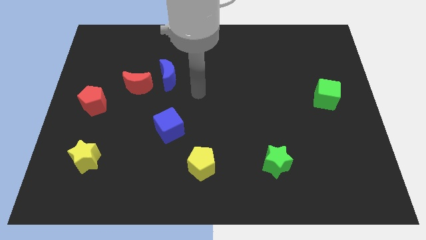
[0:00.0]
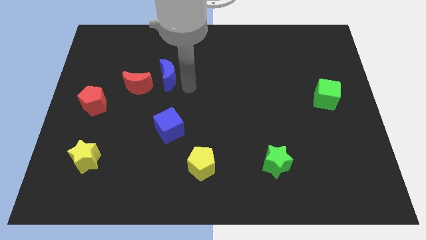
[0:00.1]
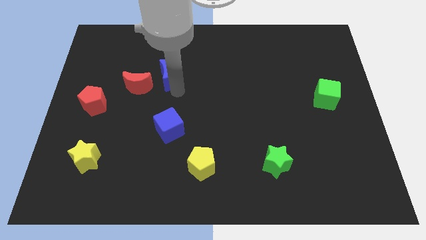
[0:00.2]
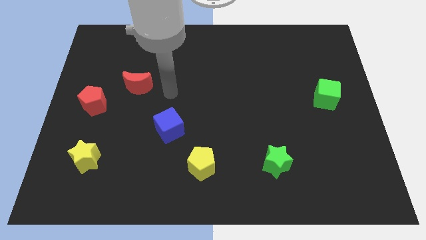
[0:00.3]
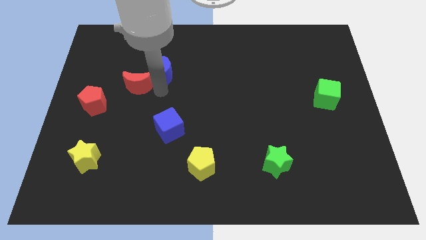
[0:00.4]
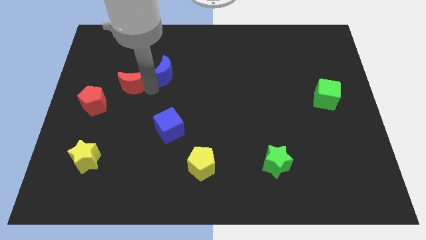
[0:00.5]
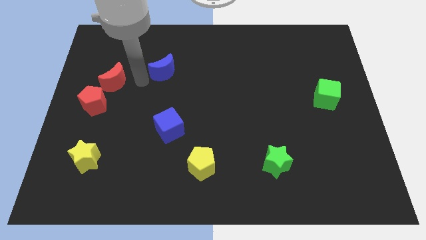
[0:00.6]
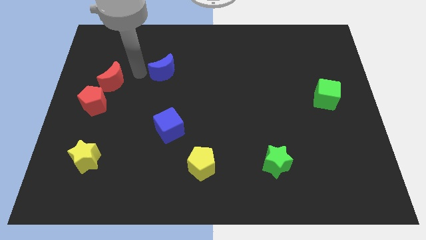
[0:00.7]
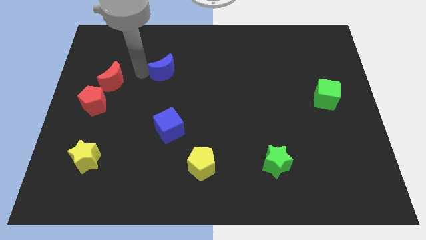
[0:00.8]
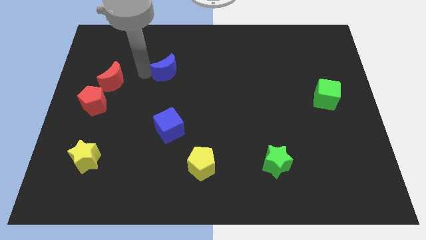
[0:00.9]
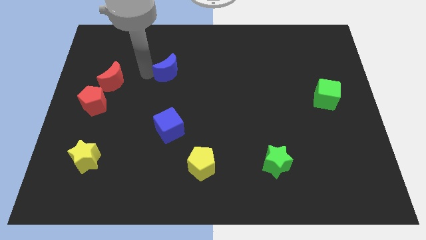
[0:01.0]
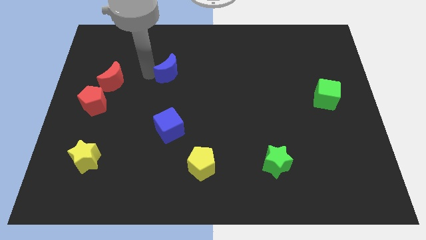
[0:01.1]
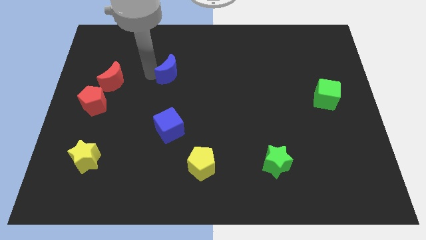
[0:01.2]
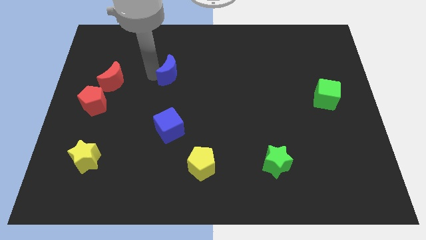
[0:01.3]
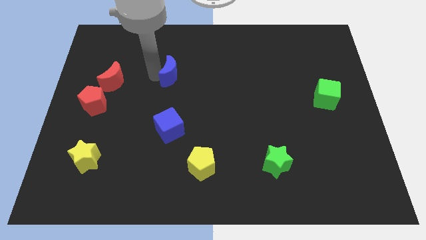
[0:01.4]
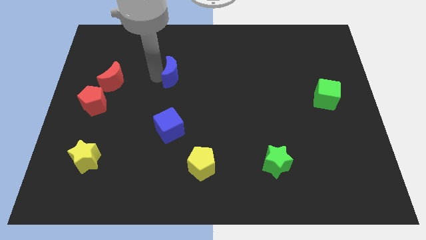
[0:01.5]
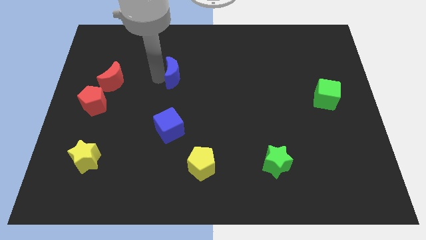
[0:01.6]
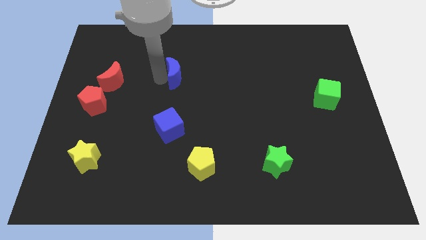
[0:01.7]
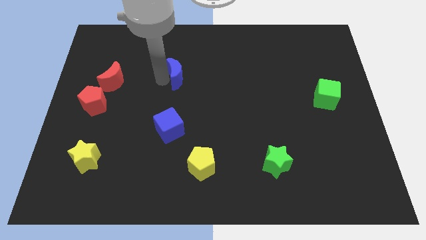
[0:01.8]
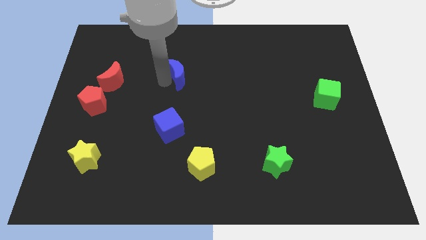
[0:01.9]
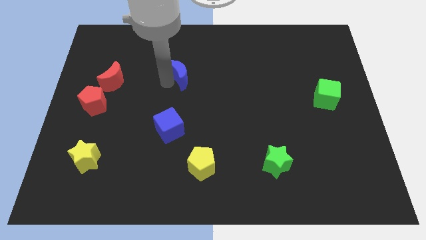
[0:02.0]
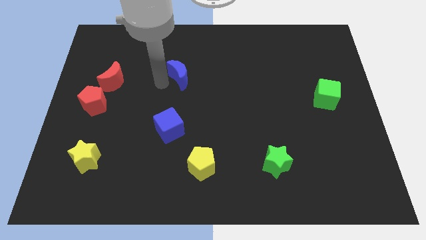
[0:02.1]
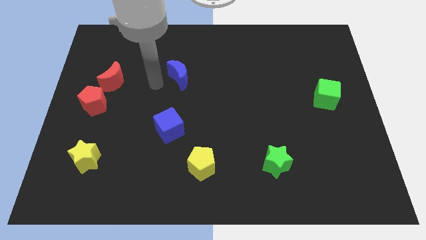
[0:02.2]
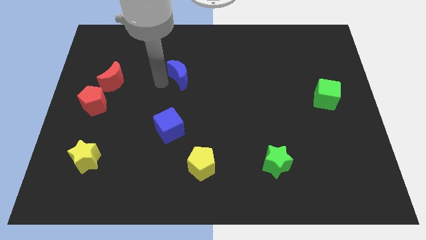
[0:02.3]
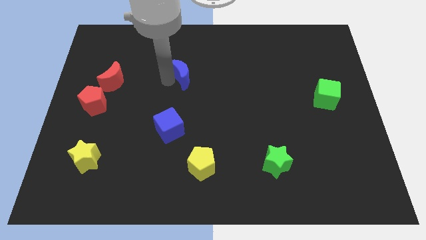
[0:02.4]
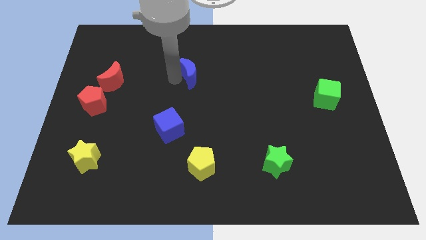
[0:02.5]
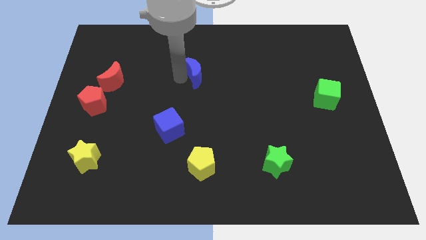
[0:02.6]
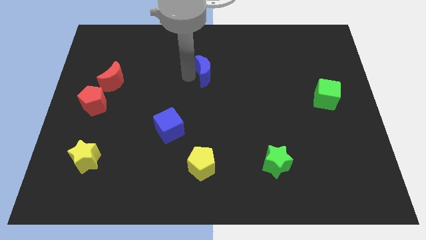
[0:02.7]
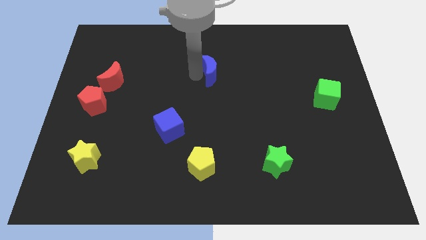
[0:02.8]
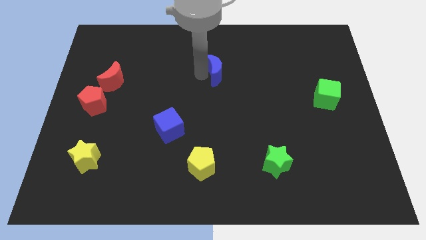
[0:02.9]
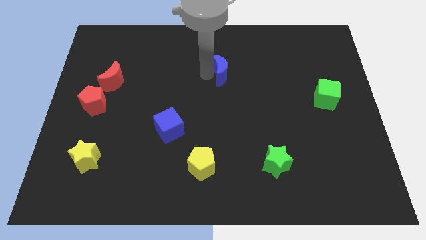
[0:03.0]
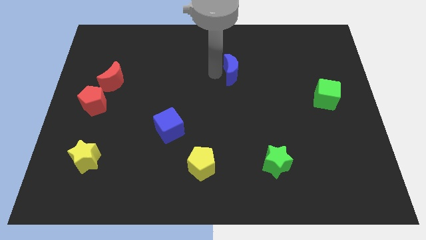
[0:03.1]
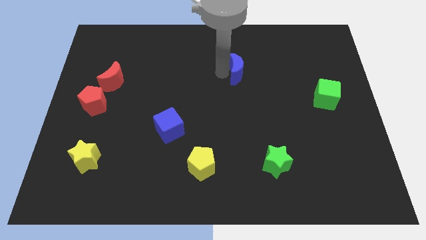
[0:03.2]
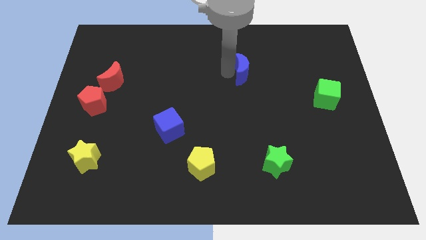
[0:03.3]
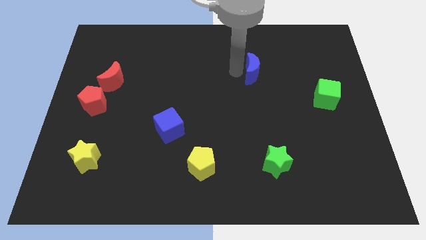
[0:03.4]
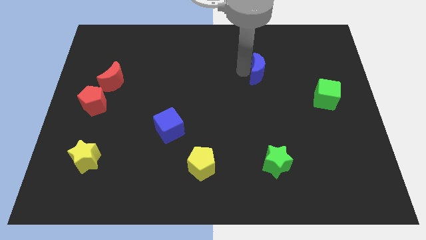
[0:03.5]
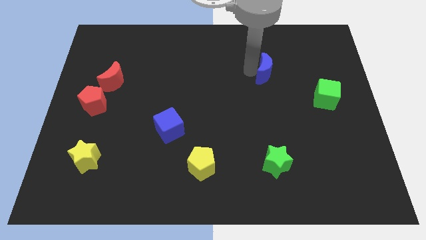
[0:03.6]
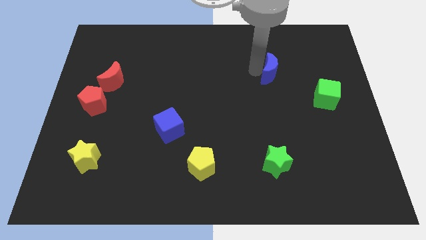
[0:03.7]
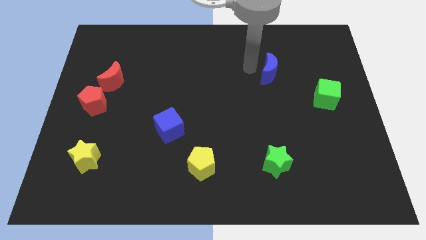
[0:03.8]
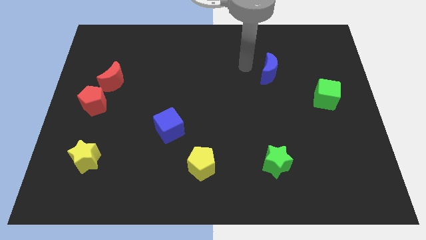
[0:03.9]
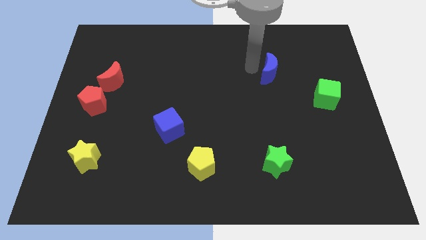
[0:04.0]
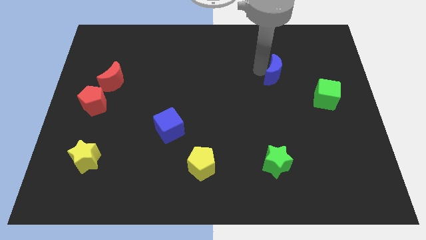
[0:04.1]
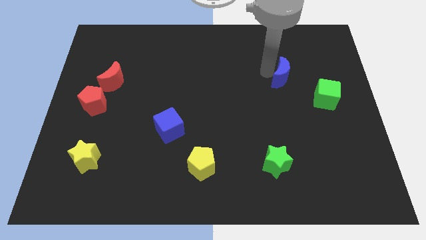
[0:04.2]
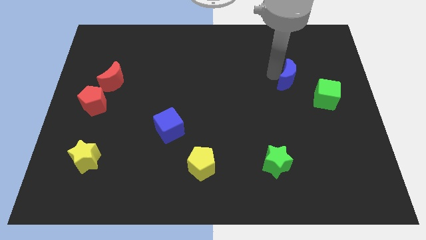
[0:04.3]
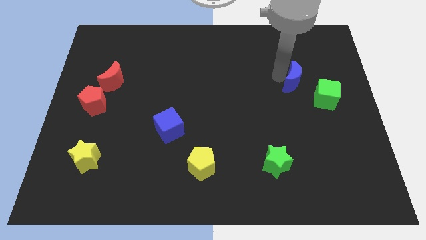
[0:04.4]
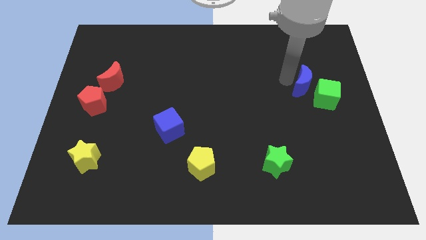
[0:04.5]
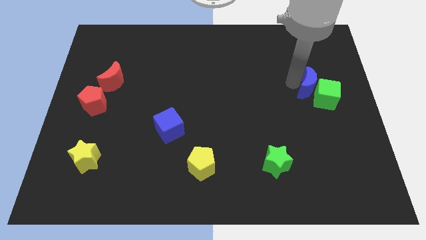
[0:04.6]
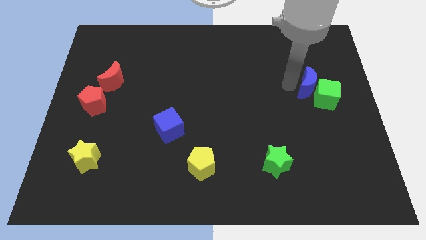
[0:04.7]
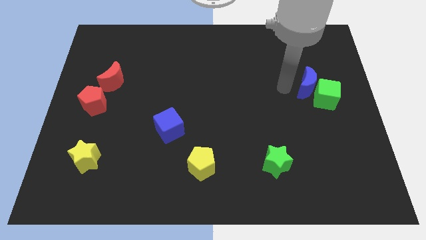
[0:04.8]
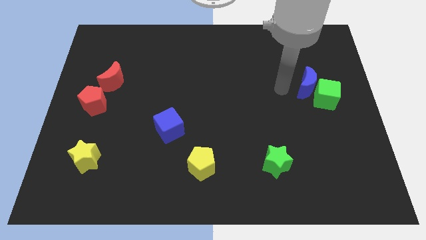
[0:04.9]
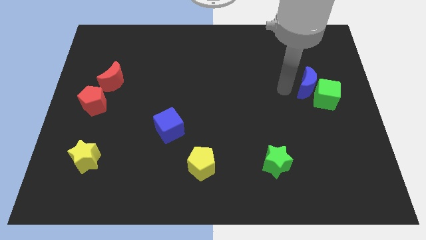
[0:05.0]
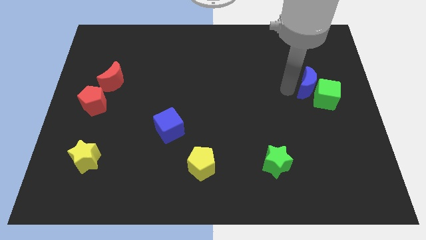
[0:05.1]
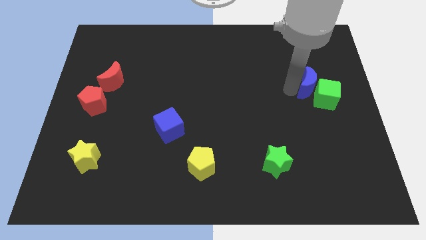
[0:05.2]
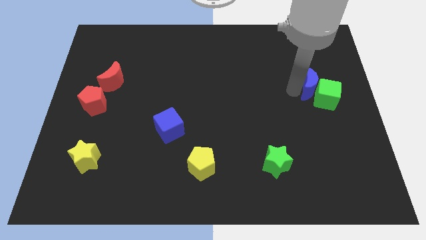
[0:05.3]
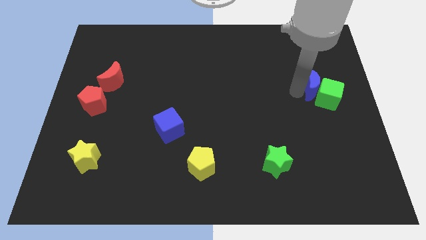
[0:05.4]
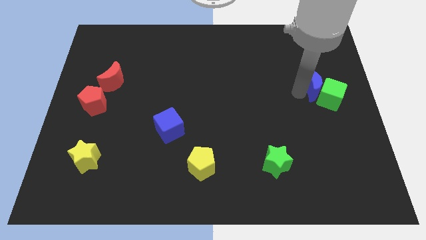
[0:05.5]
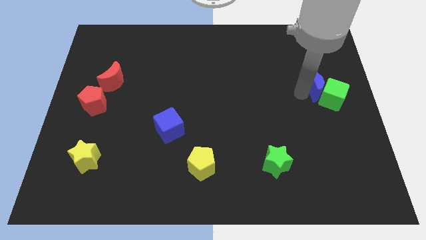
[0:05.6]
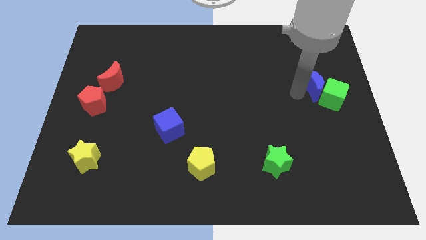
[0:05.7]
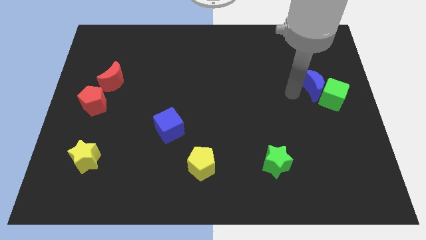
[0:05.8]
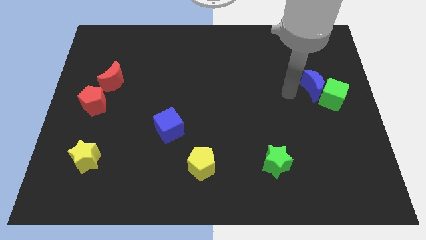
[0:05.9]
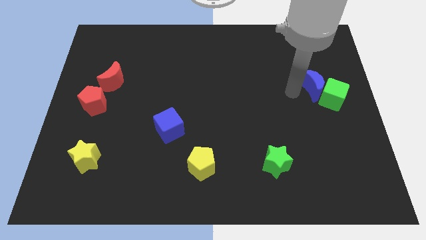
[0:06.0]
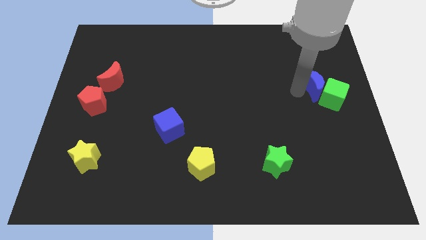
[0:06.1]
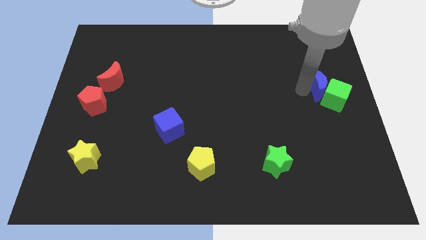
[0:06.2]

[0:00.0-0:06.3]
push the blue moon to the center right
